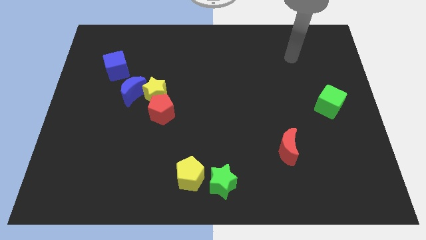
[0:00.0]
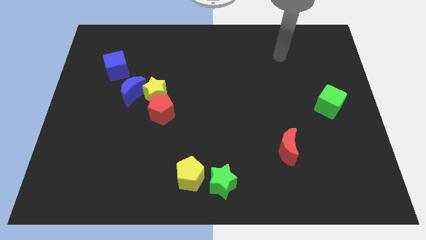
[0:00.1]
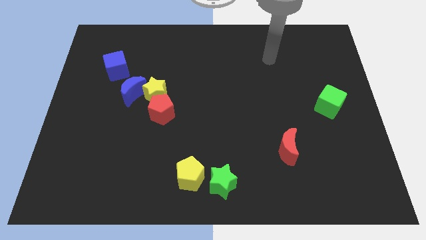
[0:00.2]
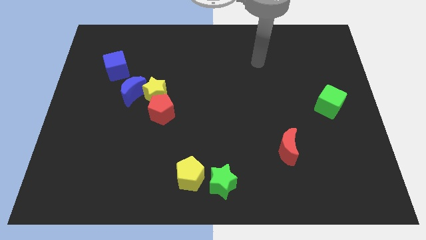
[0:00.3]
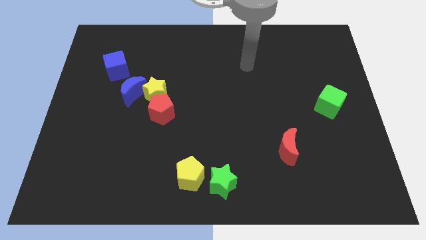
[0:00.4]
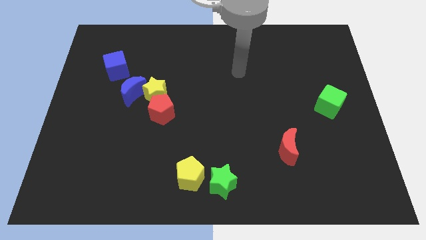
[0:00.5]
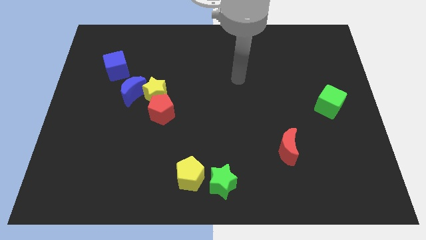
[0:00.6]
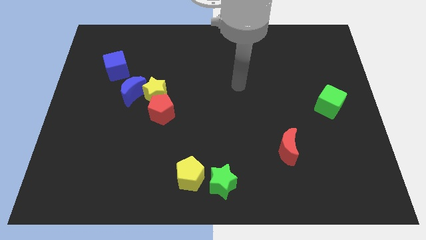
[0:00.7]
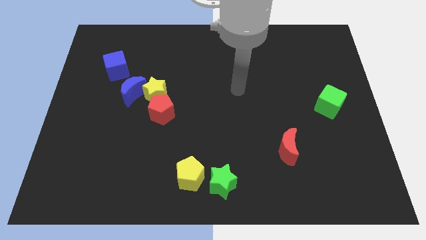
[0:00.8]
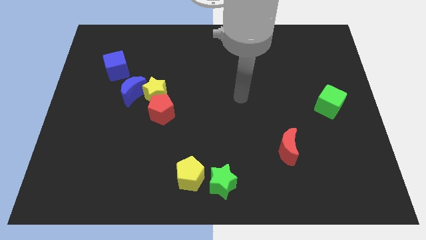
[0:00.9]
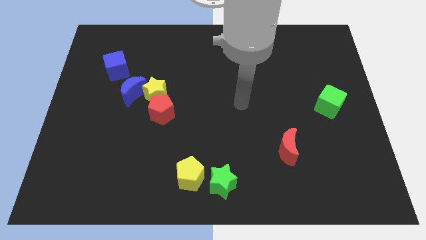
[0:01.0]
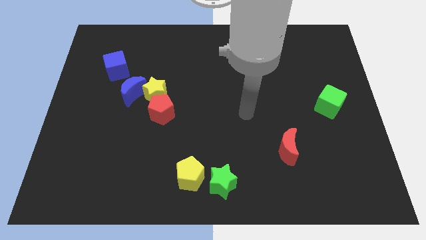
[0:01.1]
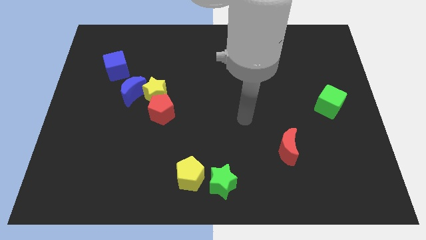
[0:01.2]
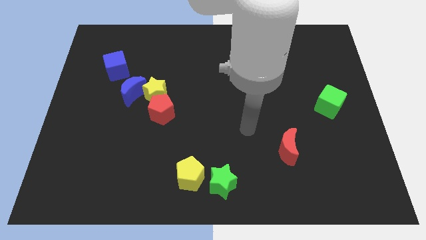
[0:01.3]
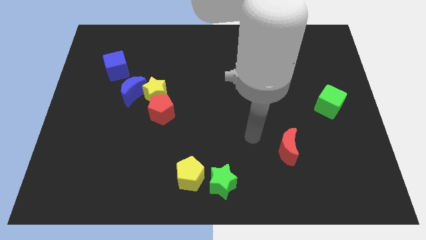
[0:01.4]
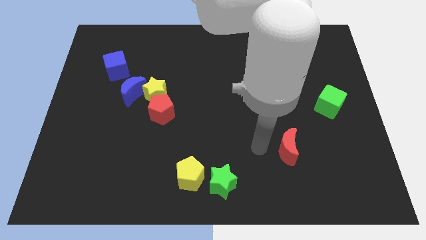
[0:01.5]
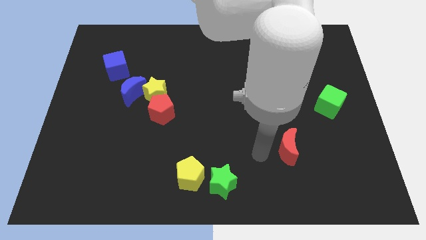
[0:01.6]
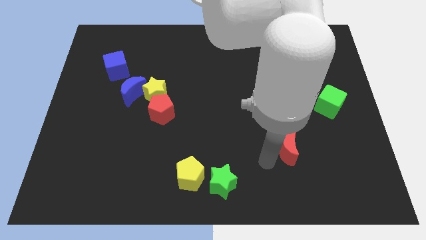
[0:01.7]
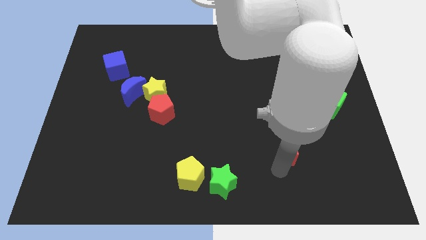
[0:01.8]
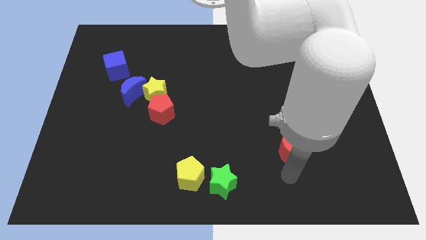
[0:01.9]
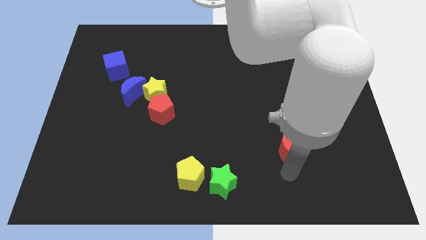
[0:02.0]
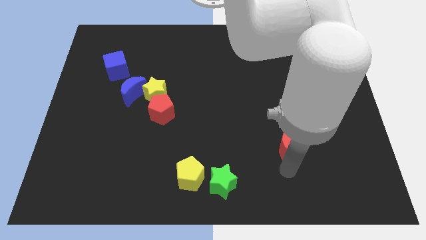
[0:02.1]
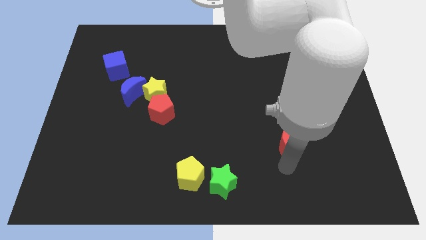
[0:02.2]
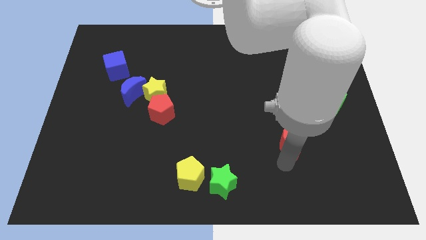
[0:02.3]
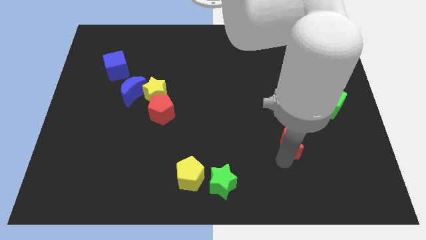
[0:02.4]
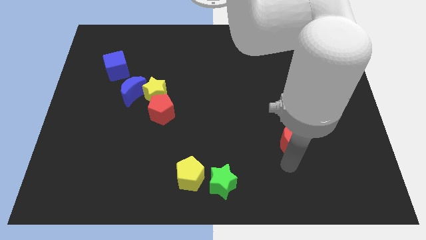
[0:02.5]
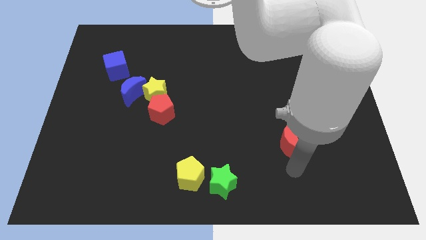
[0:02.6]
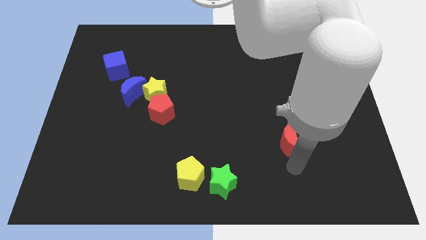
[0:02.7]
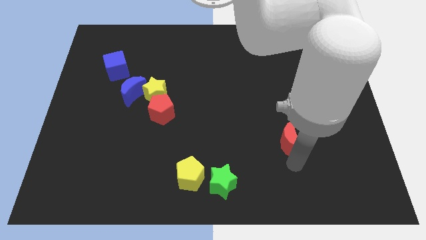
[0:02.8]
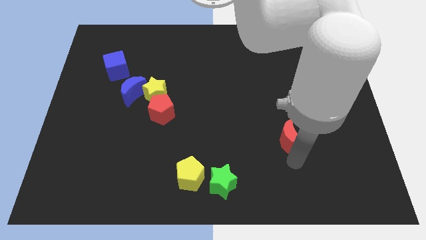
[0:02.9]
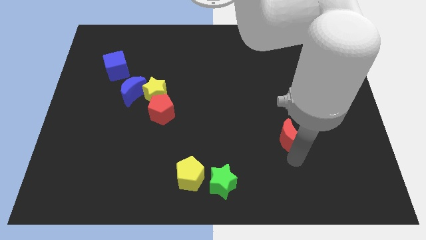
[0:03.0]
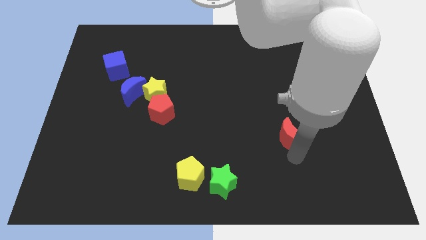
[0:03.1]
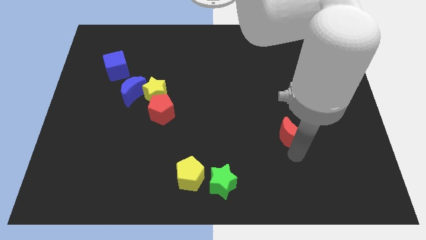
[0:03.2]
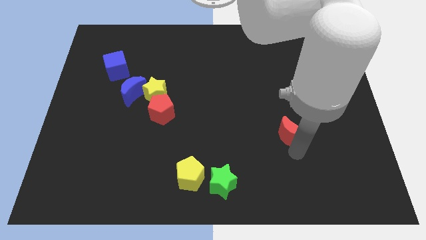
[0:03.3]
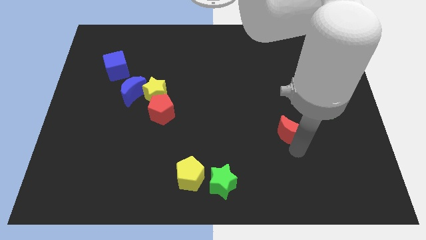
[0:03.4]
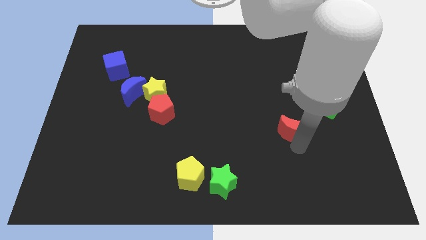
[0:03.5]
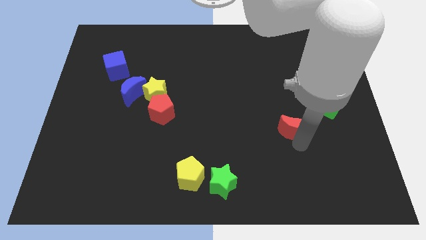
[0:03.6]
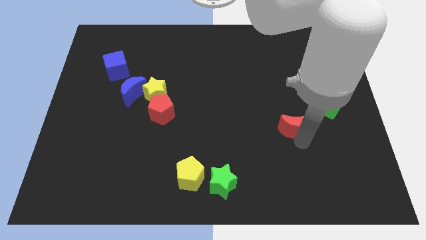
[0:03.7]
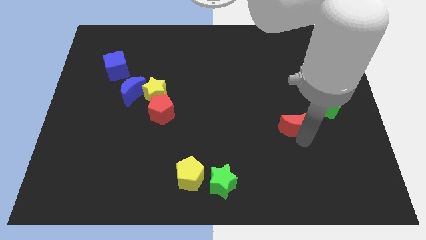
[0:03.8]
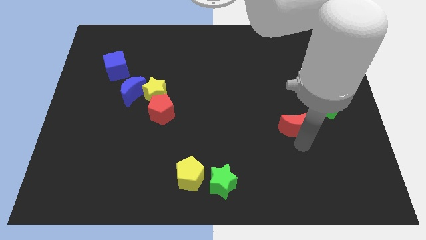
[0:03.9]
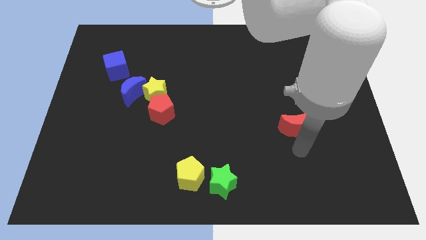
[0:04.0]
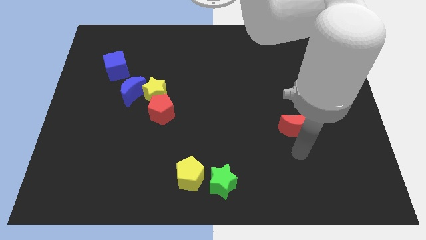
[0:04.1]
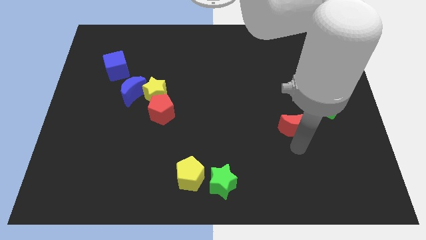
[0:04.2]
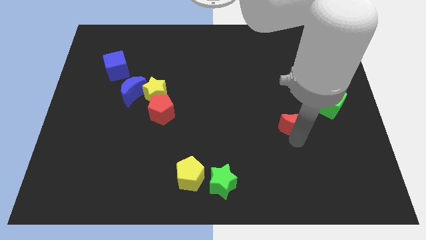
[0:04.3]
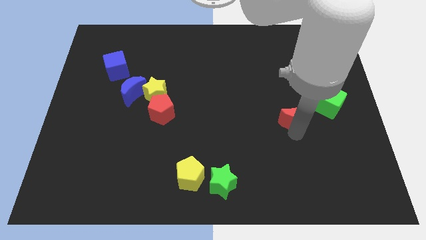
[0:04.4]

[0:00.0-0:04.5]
push the red moon slightly upwards

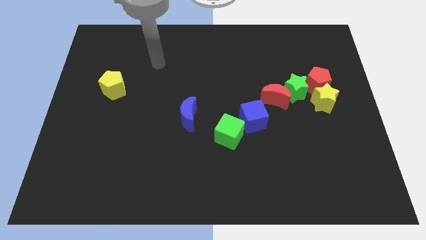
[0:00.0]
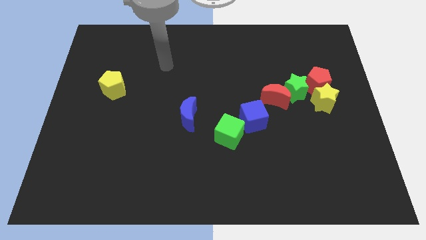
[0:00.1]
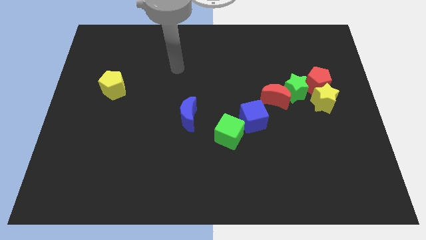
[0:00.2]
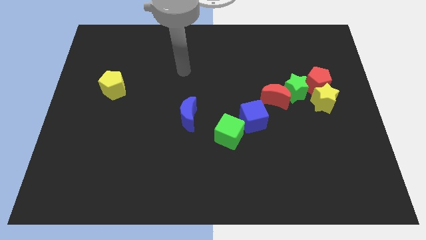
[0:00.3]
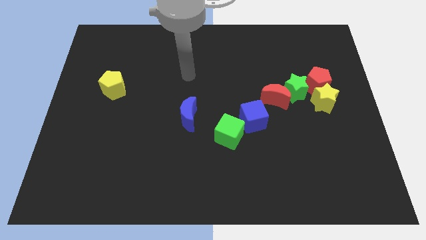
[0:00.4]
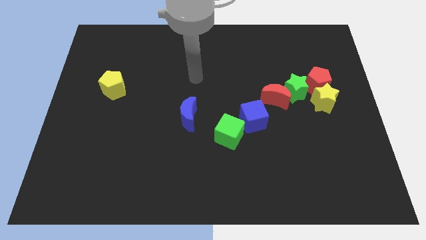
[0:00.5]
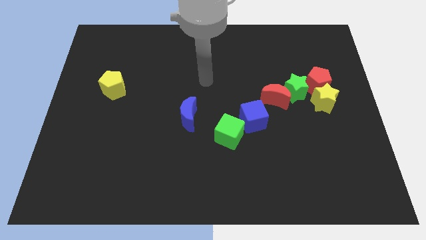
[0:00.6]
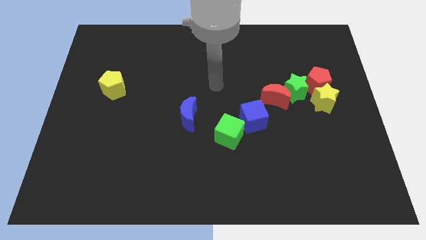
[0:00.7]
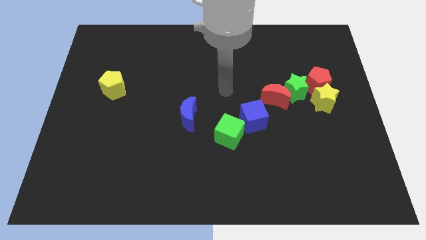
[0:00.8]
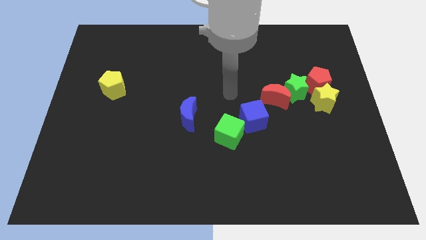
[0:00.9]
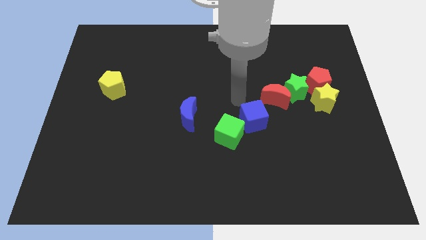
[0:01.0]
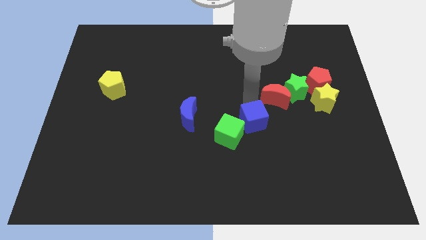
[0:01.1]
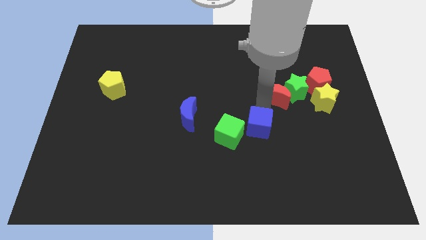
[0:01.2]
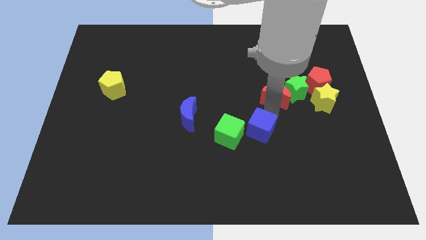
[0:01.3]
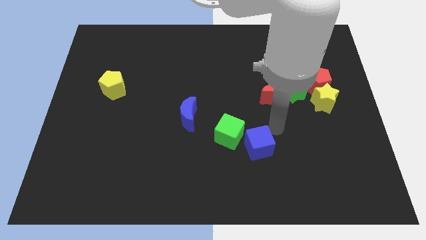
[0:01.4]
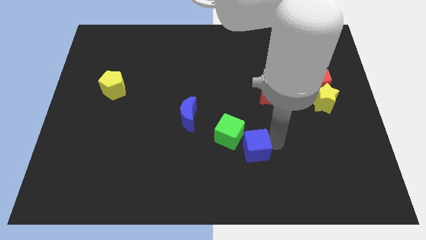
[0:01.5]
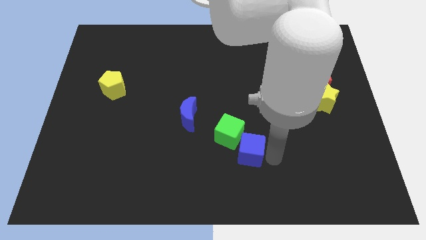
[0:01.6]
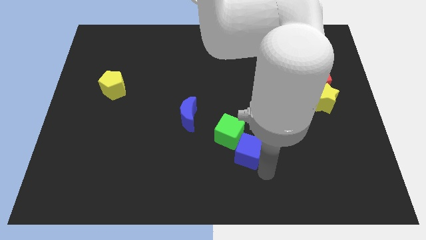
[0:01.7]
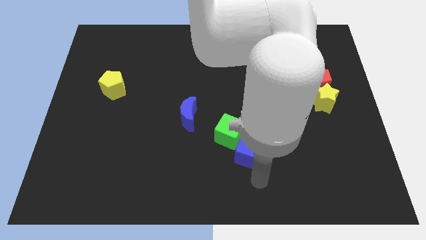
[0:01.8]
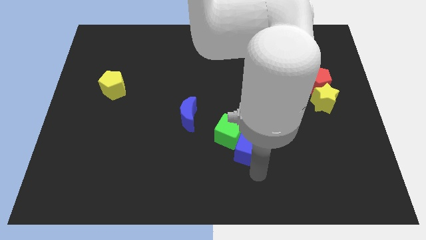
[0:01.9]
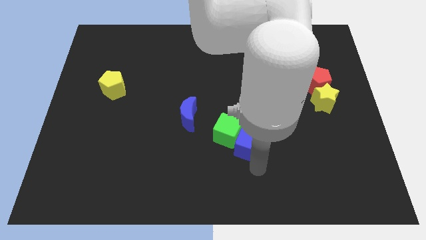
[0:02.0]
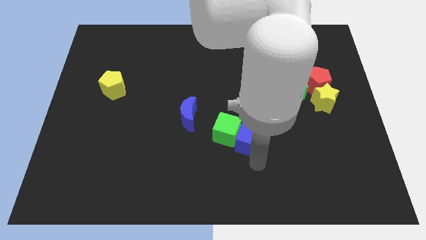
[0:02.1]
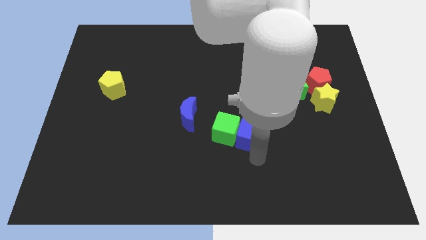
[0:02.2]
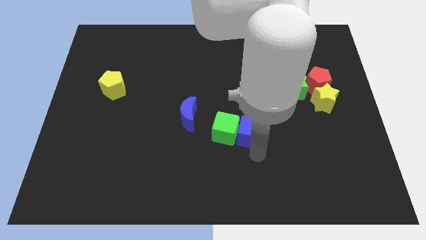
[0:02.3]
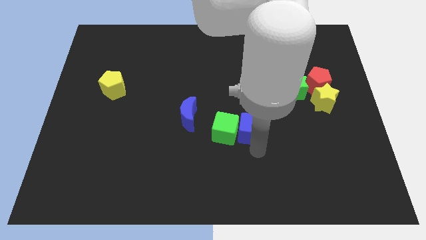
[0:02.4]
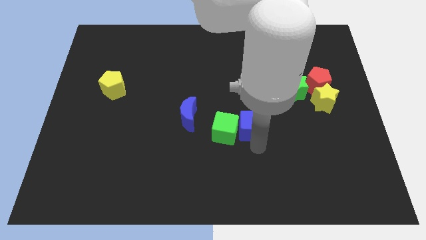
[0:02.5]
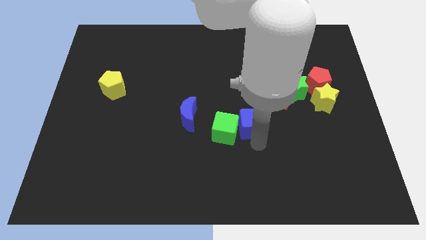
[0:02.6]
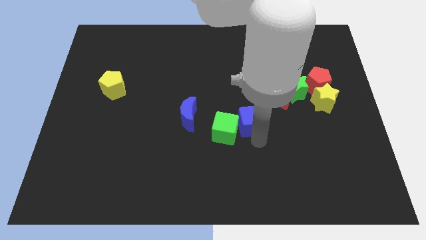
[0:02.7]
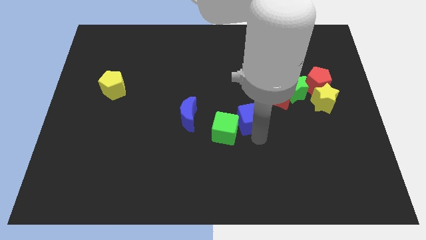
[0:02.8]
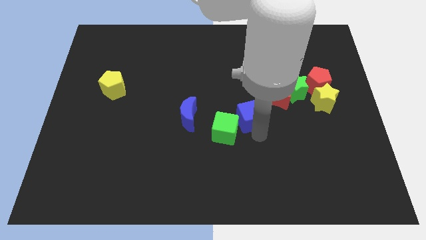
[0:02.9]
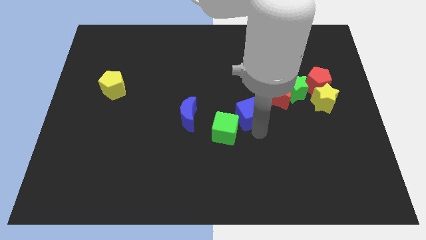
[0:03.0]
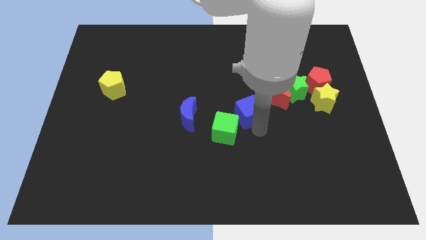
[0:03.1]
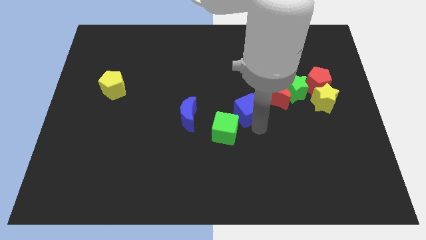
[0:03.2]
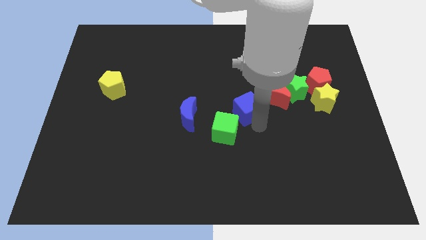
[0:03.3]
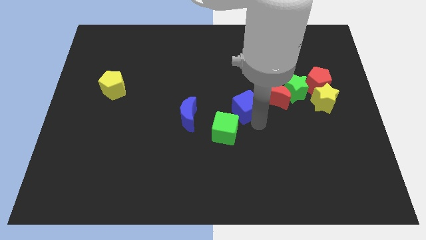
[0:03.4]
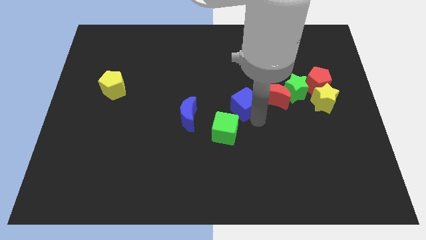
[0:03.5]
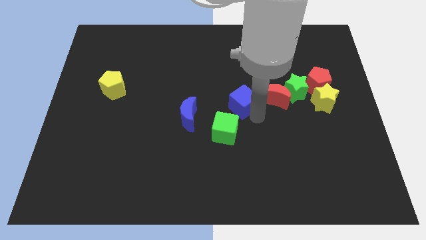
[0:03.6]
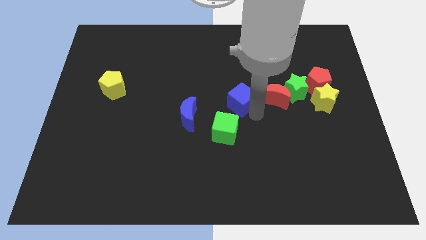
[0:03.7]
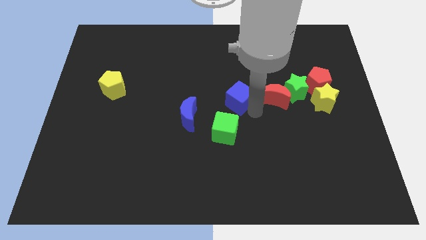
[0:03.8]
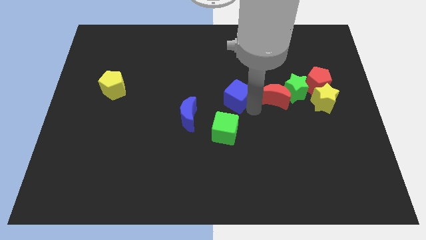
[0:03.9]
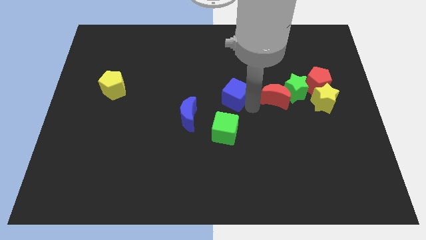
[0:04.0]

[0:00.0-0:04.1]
move the blue cube slightly diagonally upwards and left
